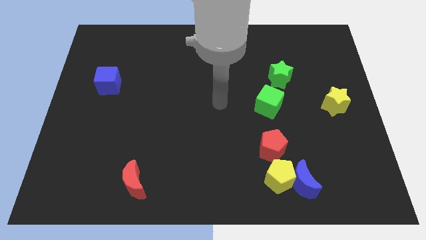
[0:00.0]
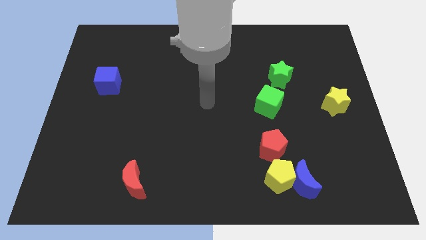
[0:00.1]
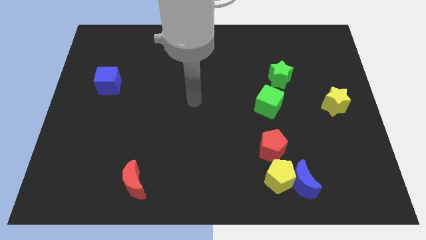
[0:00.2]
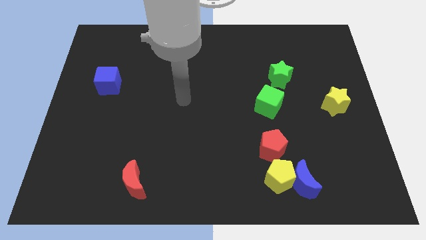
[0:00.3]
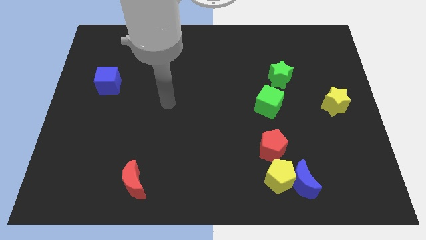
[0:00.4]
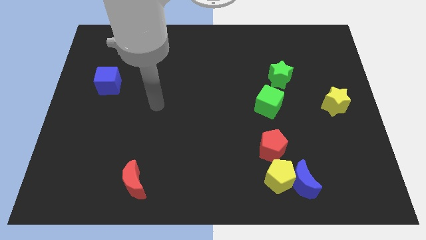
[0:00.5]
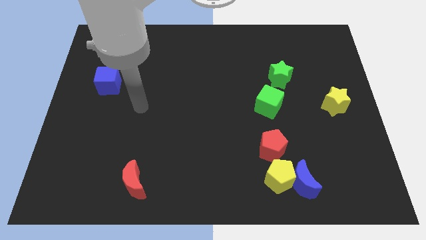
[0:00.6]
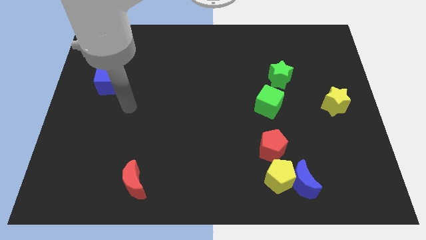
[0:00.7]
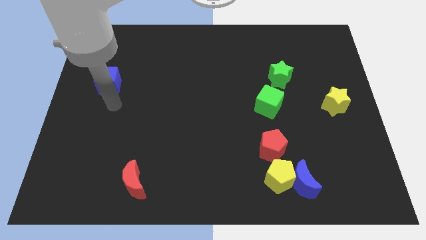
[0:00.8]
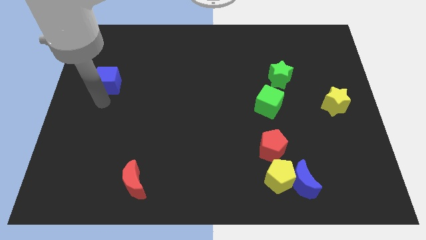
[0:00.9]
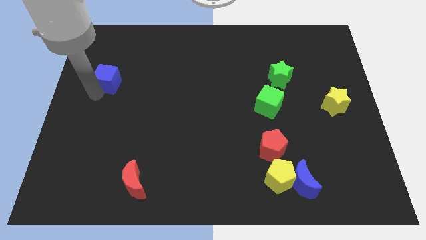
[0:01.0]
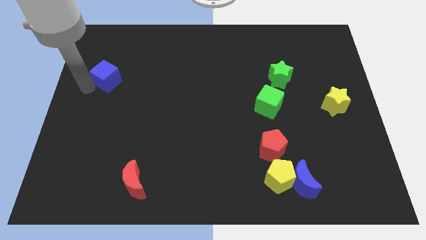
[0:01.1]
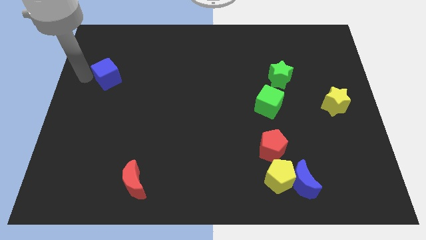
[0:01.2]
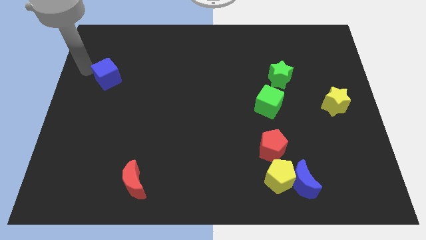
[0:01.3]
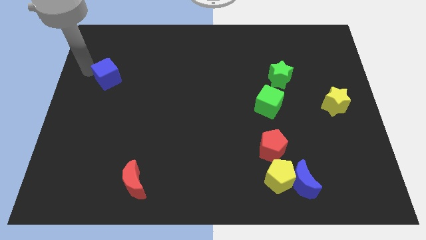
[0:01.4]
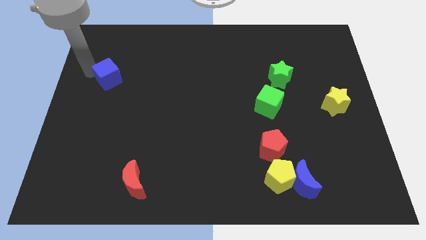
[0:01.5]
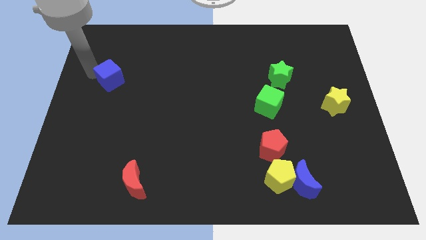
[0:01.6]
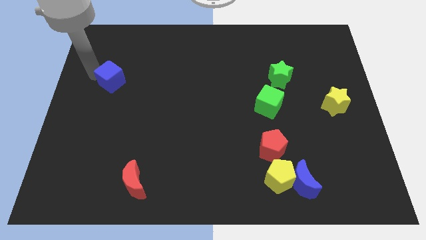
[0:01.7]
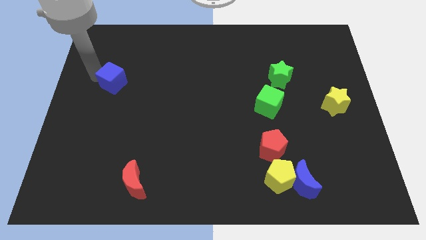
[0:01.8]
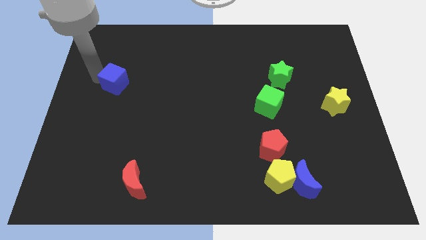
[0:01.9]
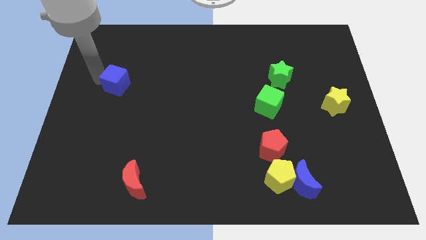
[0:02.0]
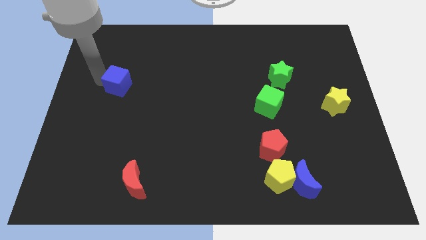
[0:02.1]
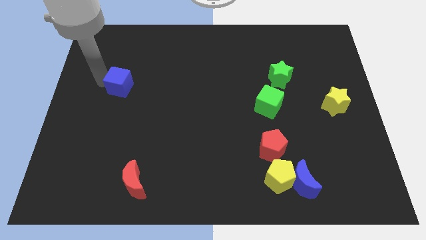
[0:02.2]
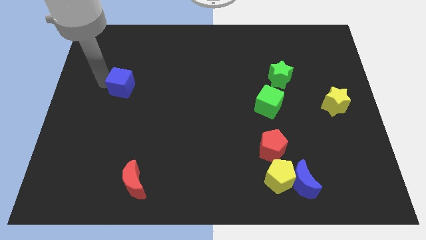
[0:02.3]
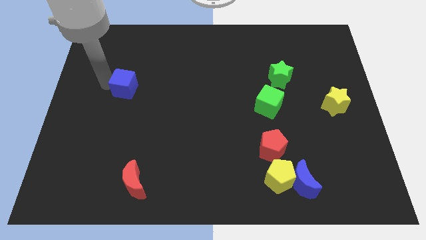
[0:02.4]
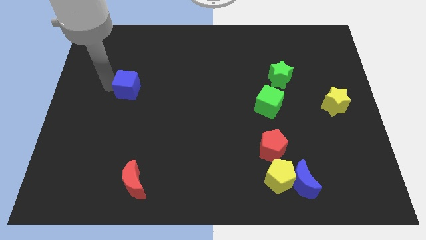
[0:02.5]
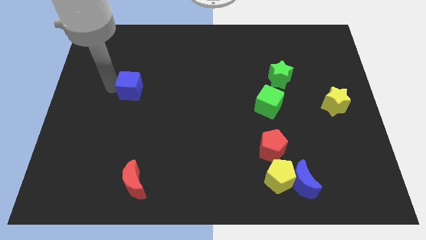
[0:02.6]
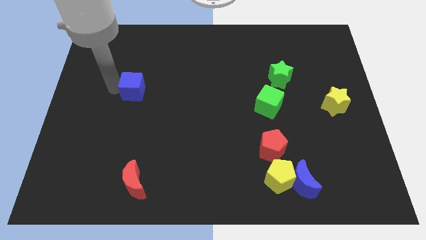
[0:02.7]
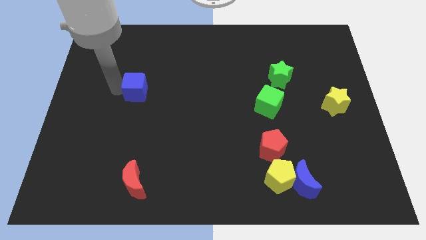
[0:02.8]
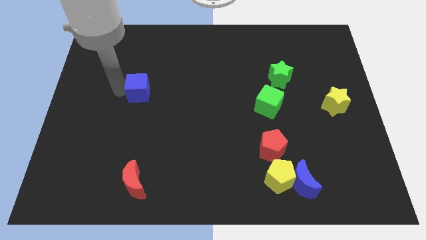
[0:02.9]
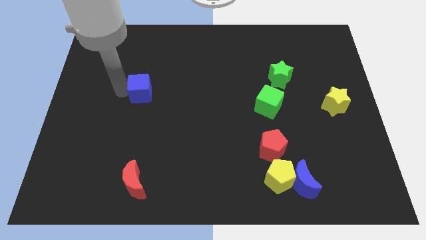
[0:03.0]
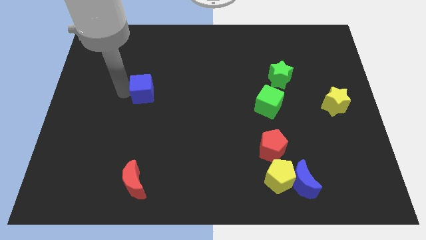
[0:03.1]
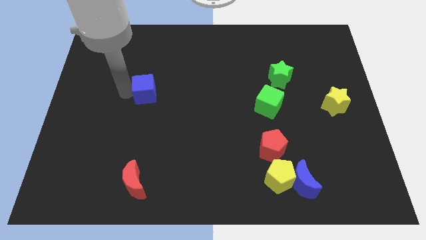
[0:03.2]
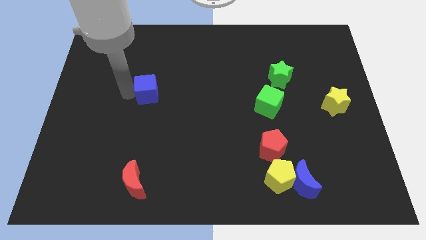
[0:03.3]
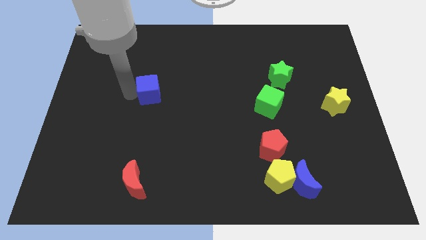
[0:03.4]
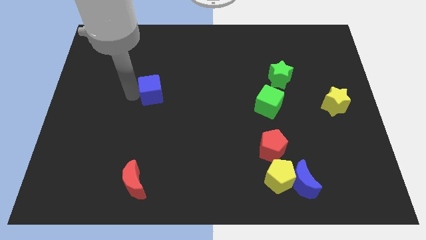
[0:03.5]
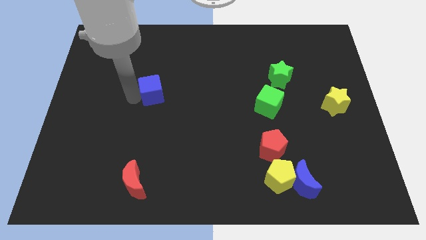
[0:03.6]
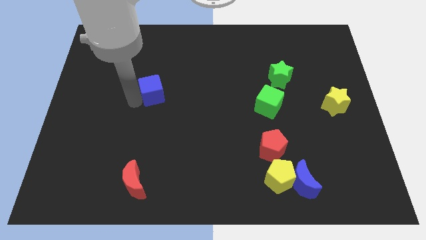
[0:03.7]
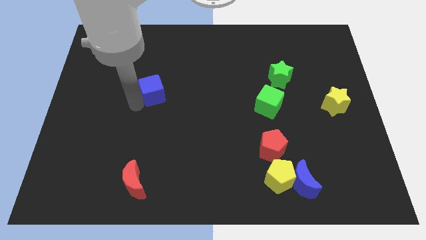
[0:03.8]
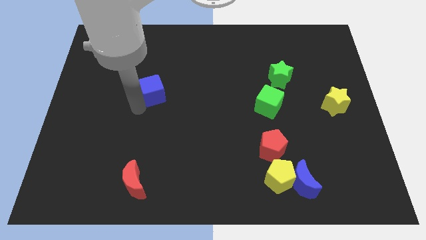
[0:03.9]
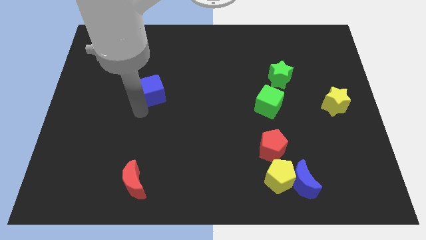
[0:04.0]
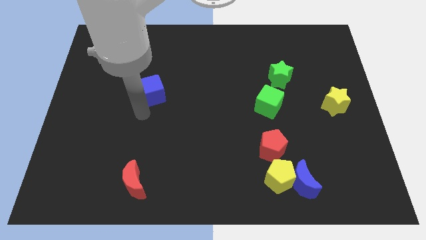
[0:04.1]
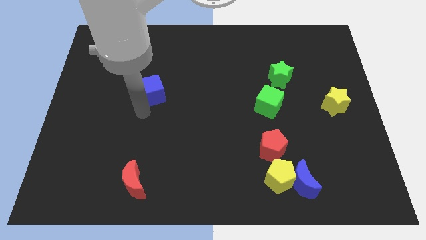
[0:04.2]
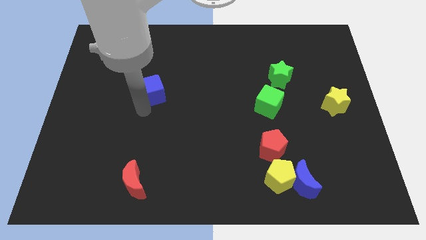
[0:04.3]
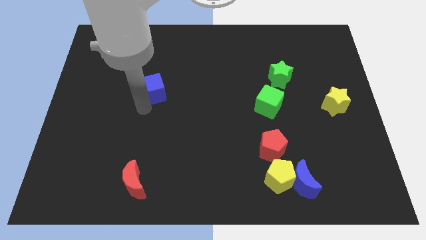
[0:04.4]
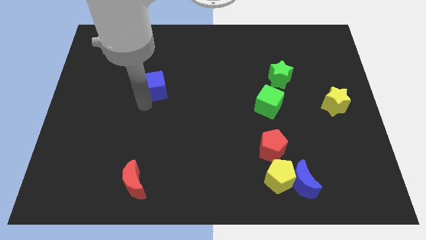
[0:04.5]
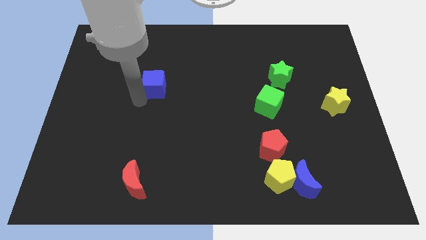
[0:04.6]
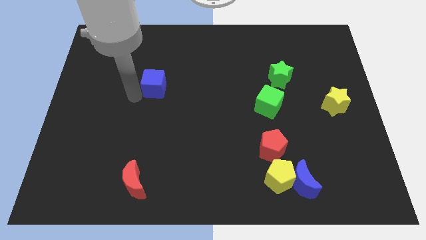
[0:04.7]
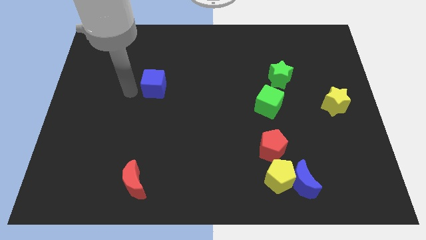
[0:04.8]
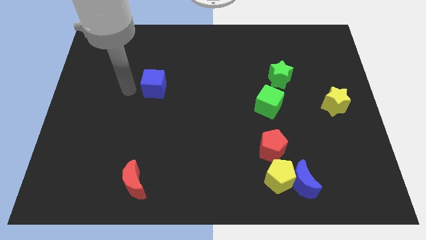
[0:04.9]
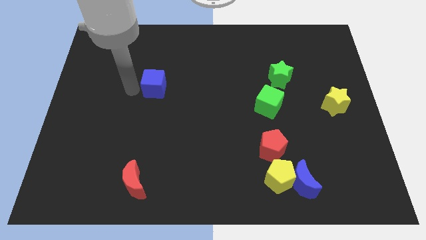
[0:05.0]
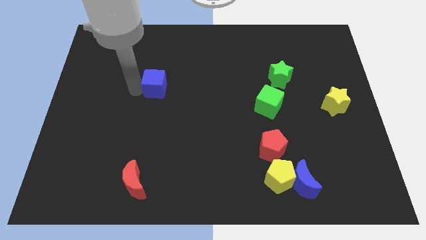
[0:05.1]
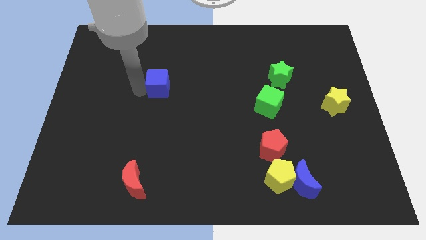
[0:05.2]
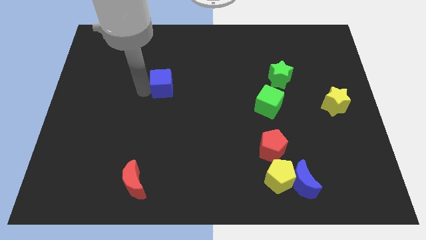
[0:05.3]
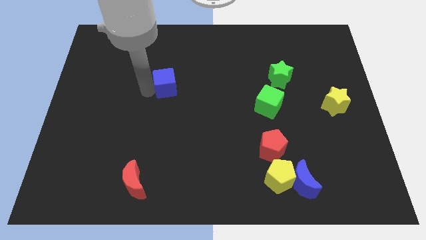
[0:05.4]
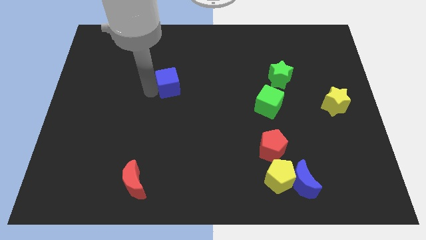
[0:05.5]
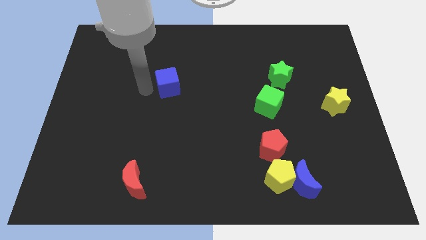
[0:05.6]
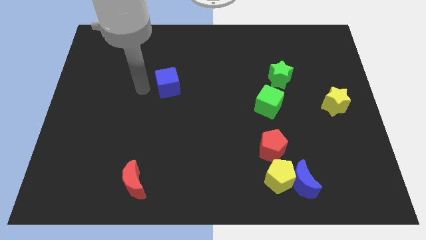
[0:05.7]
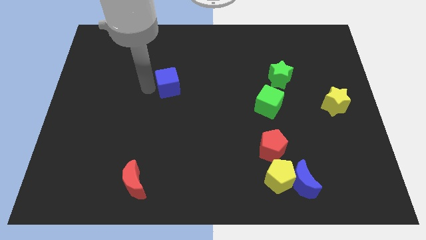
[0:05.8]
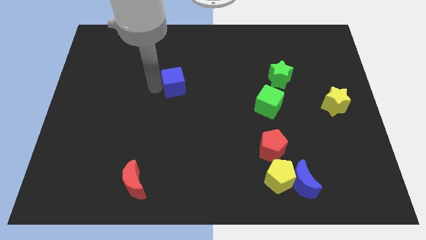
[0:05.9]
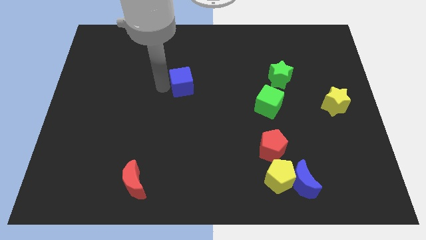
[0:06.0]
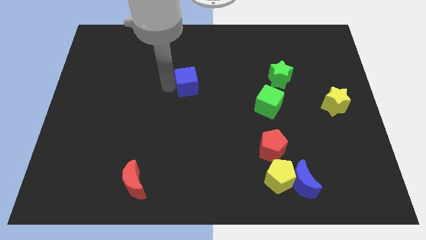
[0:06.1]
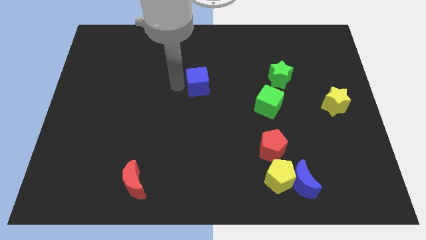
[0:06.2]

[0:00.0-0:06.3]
move the blue cube right

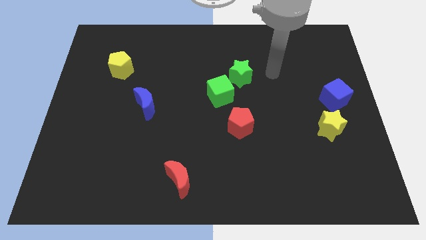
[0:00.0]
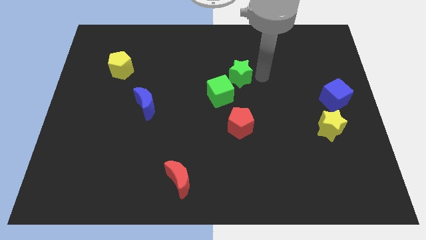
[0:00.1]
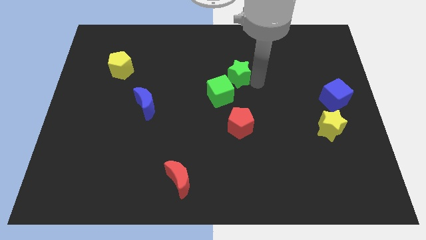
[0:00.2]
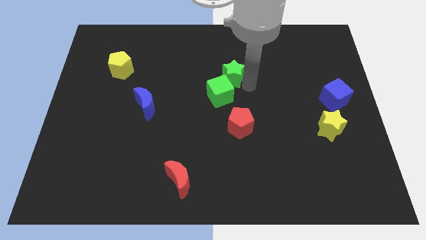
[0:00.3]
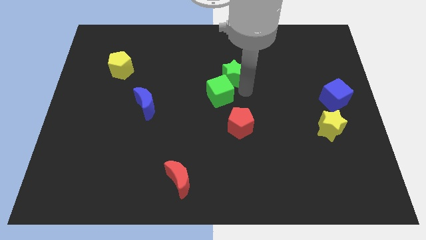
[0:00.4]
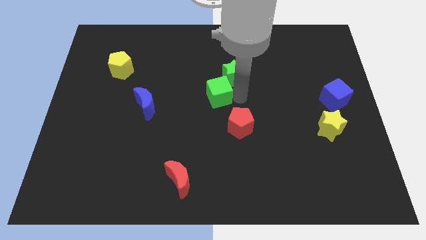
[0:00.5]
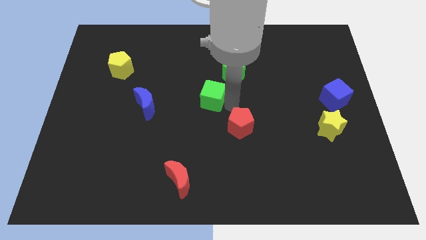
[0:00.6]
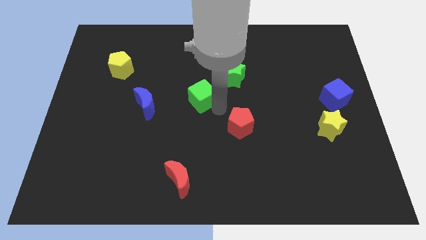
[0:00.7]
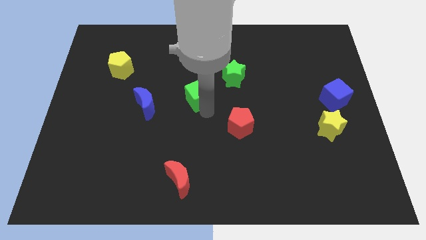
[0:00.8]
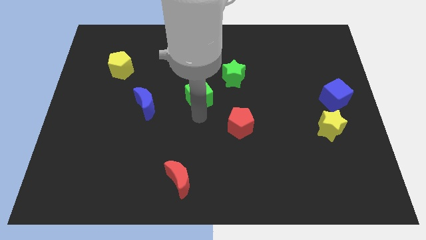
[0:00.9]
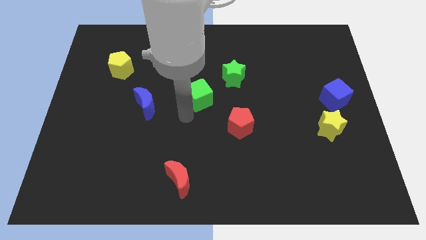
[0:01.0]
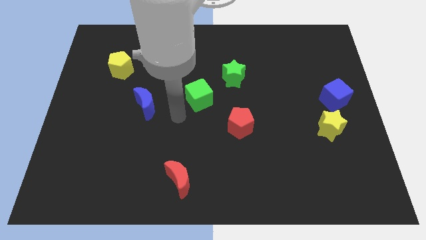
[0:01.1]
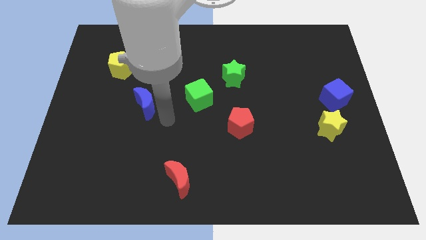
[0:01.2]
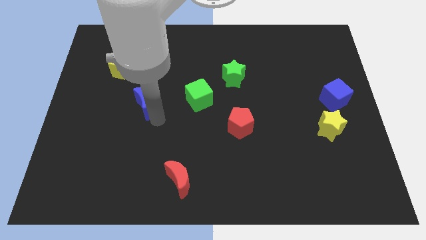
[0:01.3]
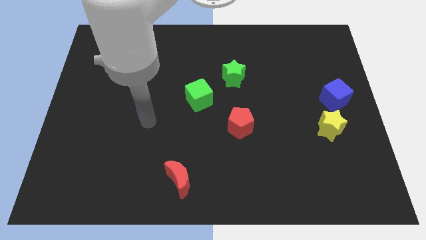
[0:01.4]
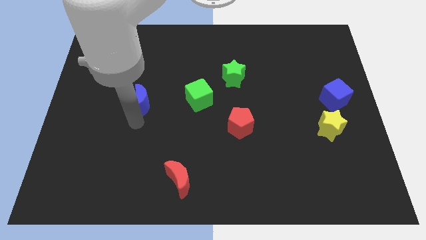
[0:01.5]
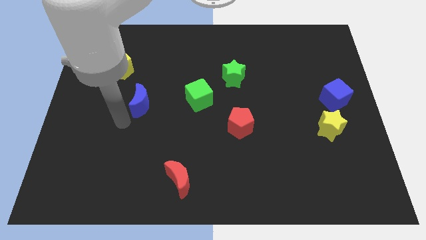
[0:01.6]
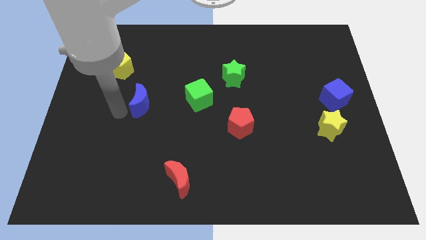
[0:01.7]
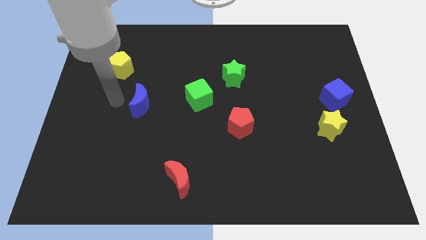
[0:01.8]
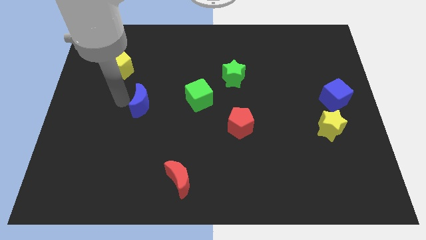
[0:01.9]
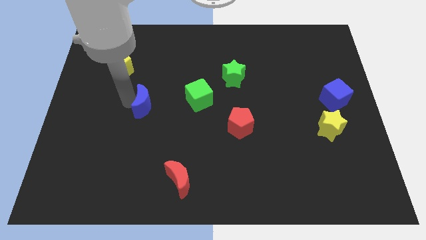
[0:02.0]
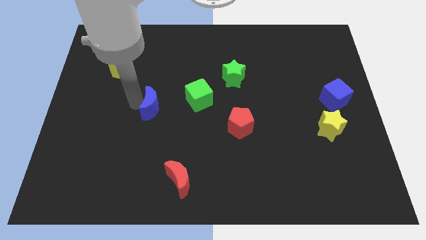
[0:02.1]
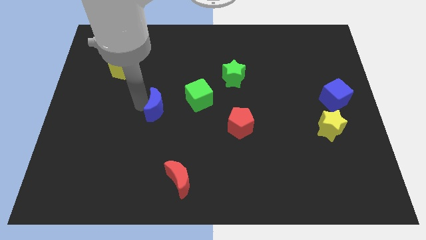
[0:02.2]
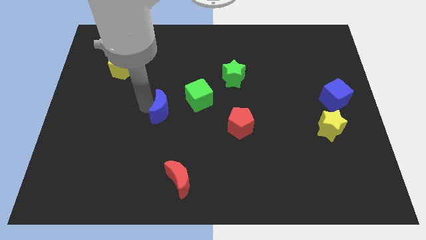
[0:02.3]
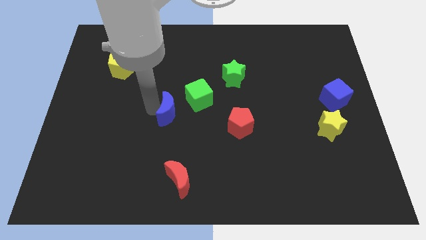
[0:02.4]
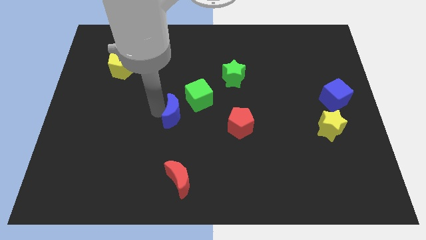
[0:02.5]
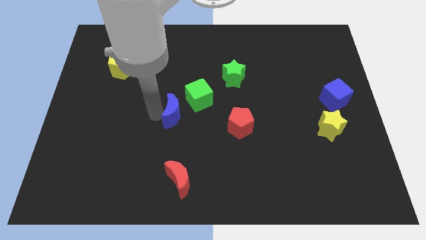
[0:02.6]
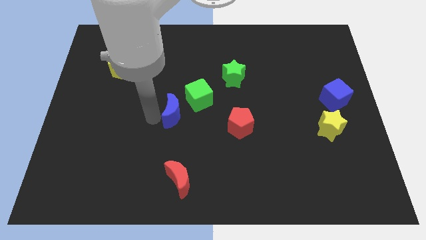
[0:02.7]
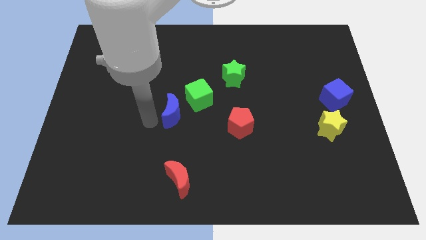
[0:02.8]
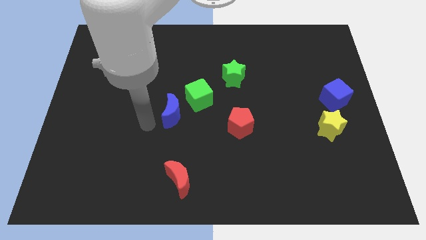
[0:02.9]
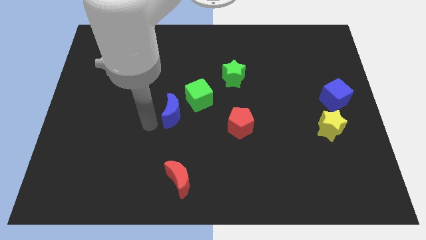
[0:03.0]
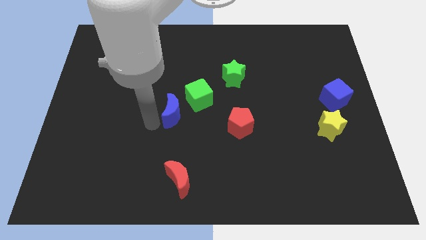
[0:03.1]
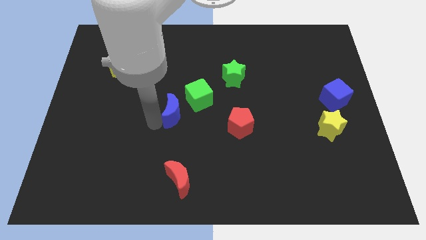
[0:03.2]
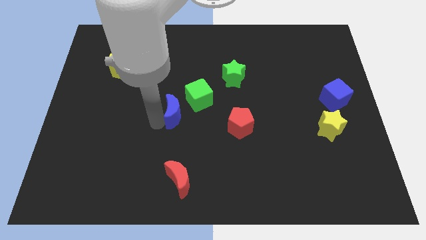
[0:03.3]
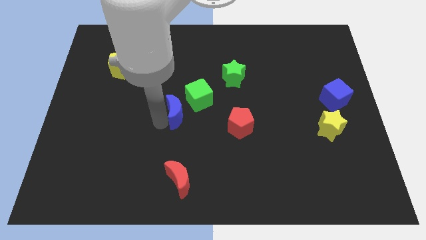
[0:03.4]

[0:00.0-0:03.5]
push the blue moon a bit right
